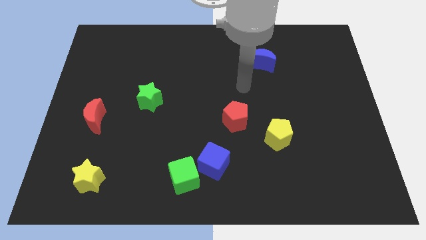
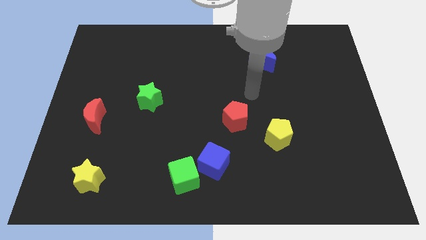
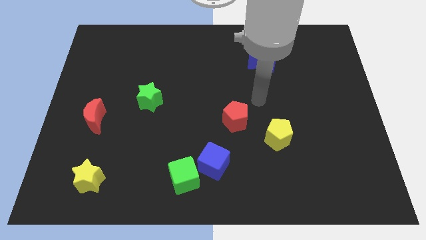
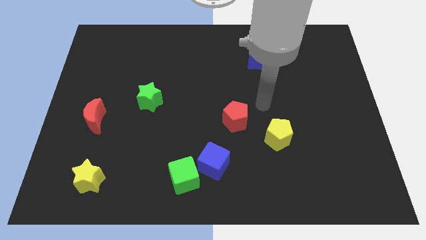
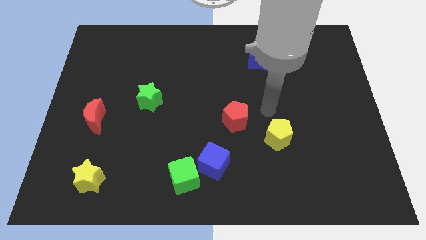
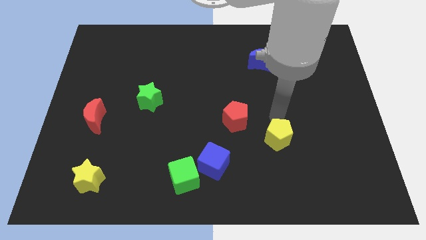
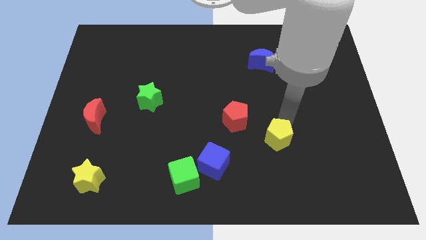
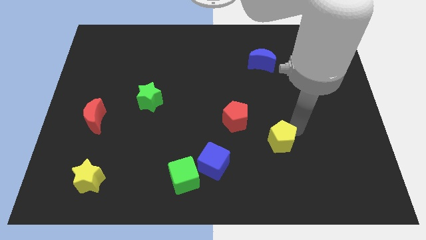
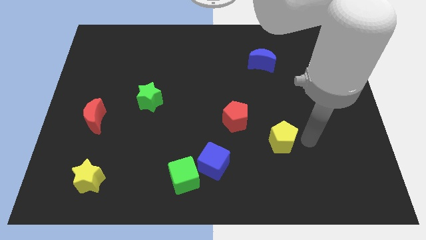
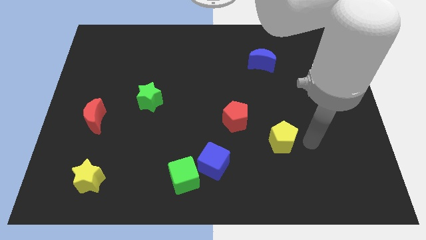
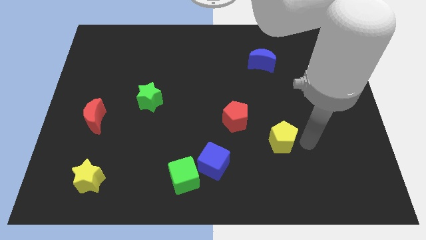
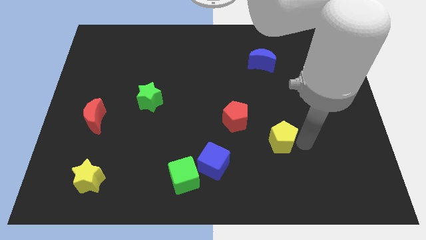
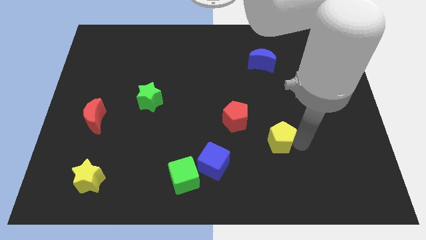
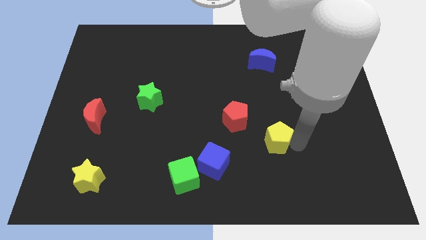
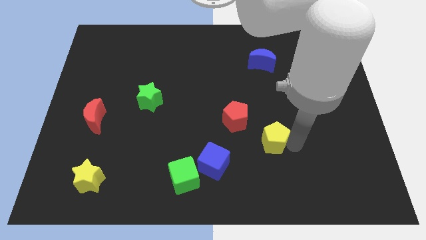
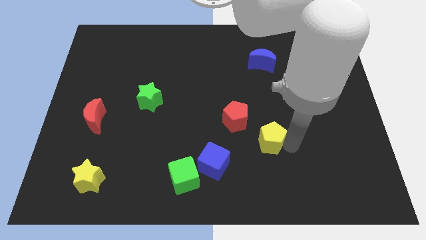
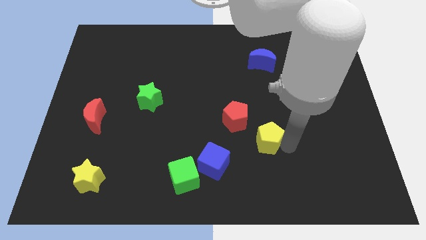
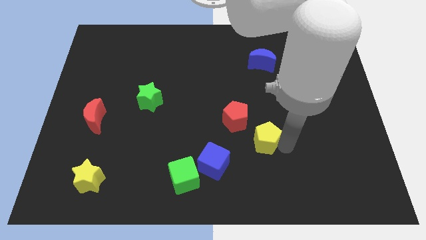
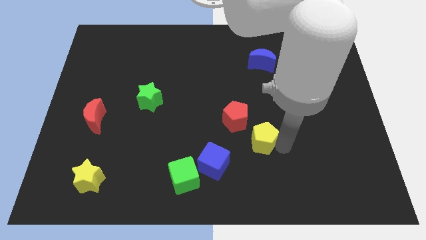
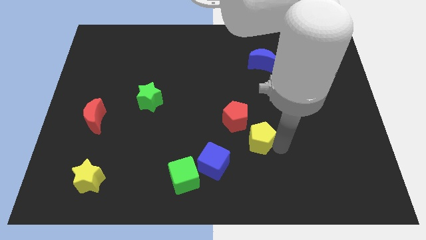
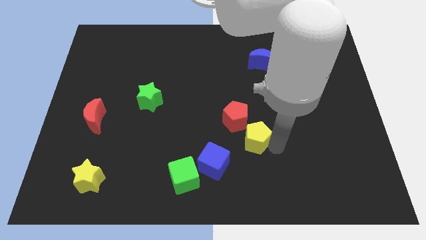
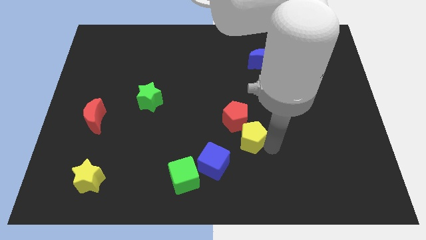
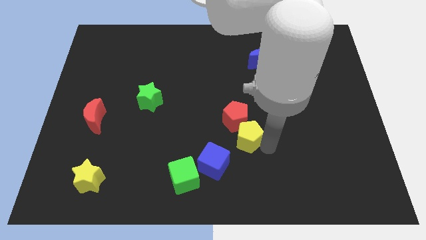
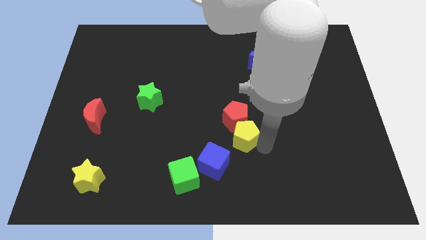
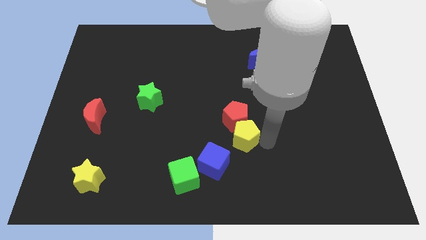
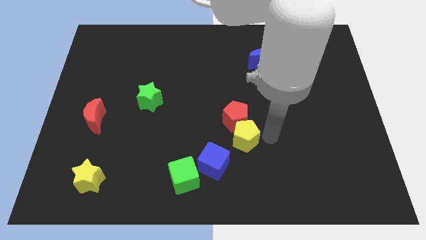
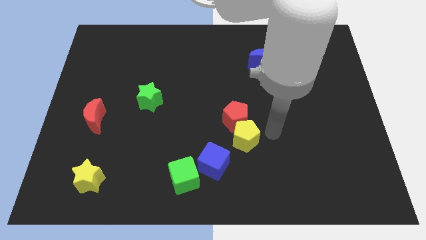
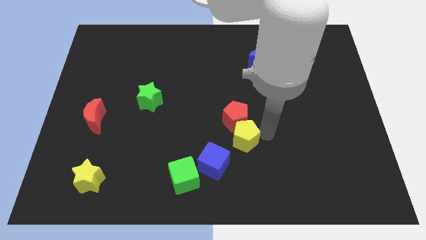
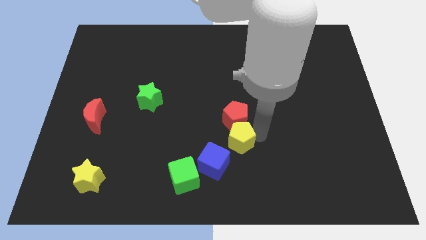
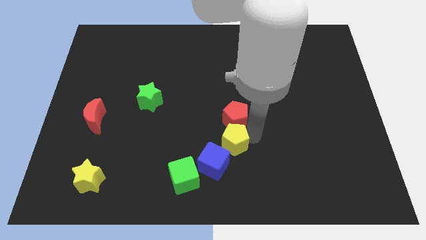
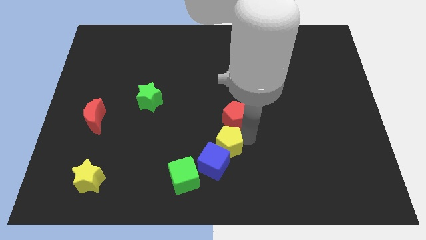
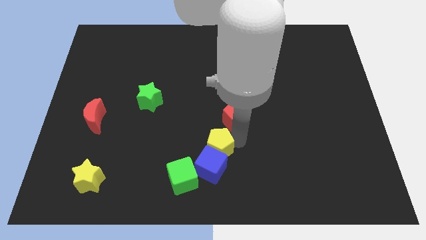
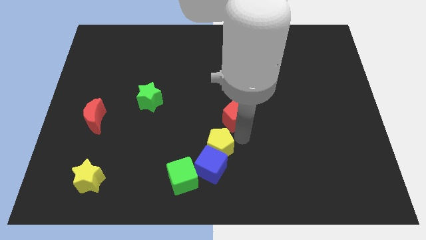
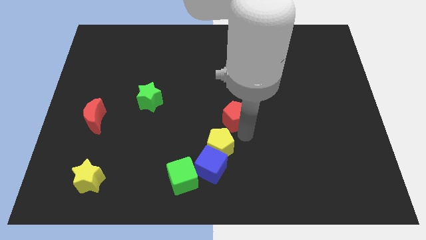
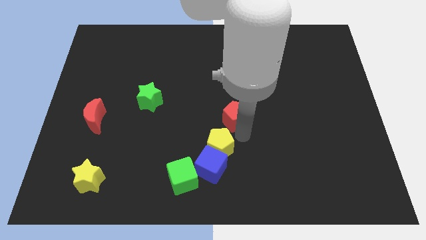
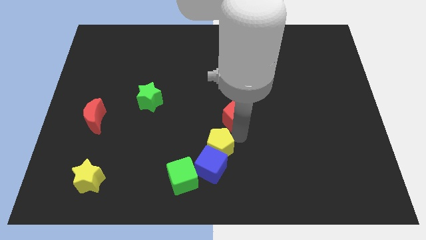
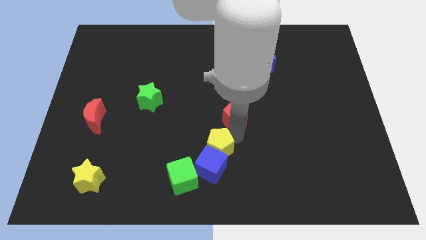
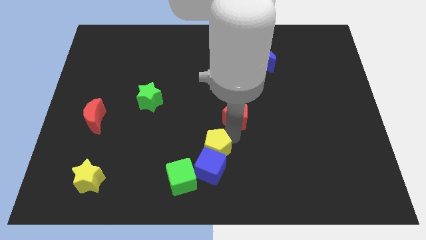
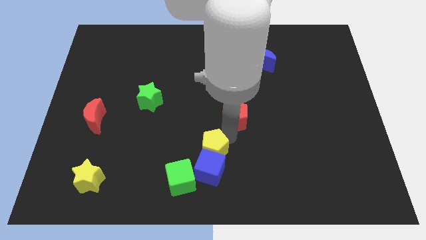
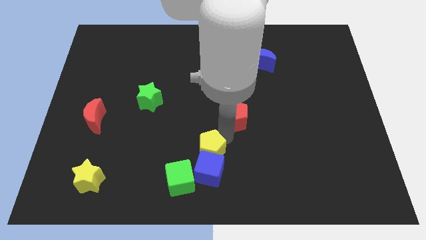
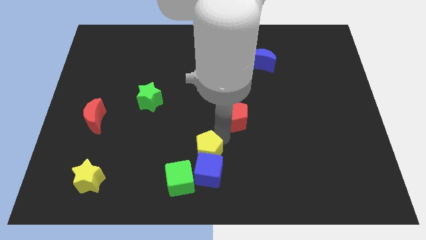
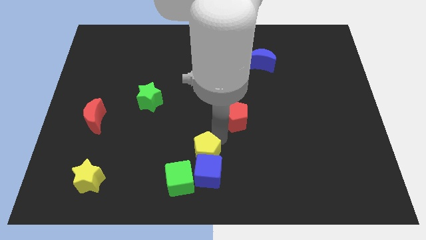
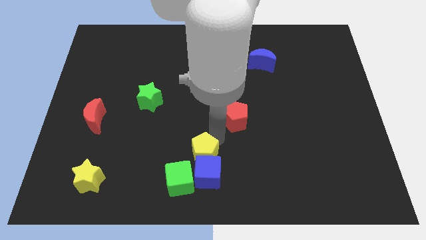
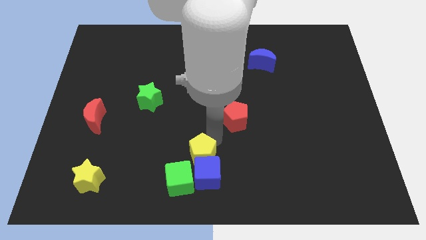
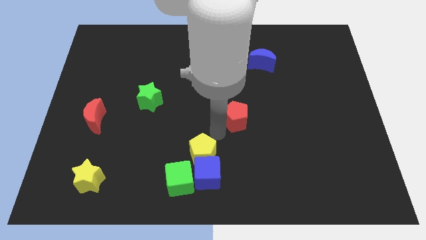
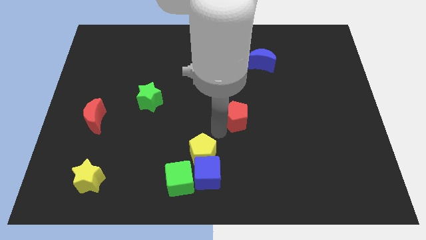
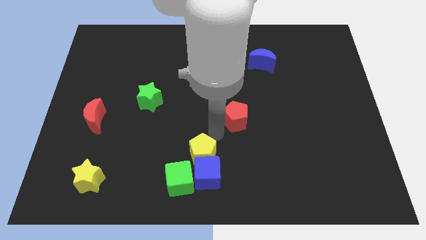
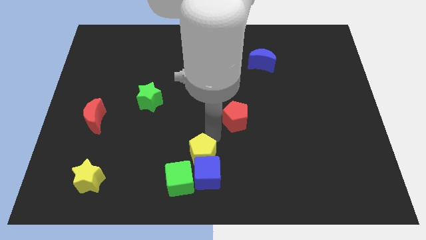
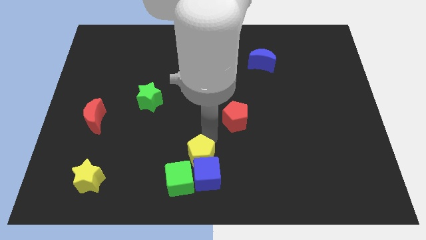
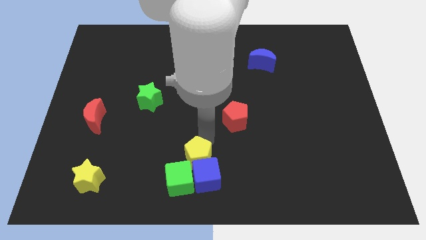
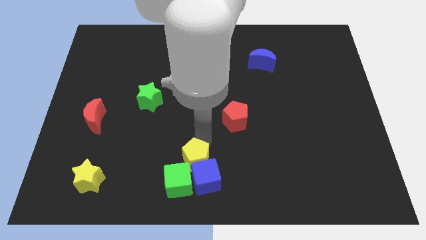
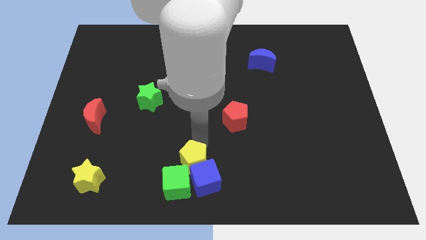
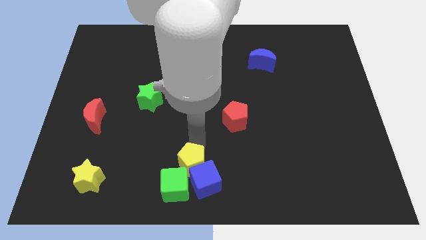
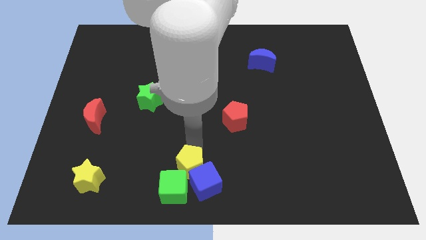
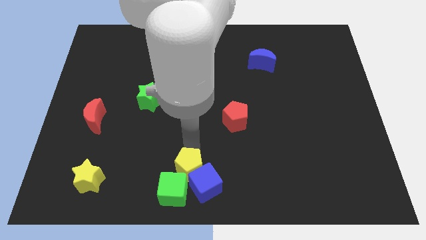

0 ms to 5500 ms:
move the yellow pentagon towards the green cube

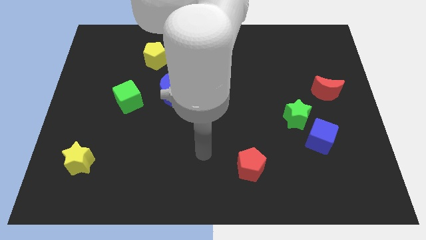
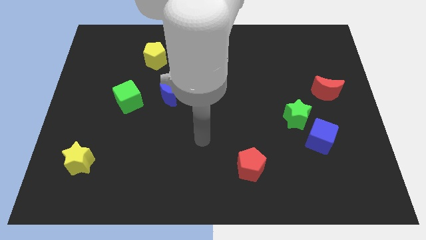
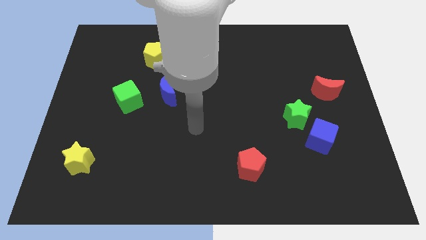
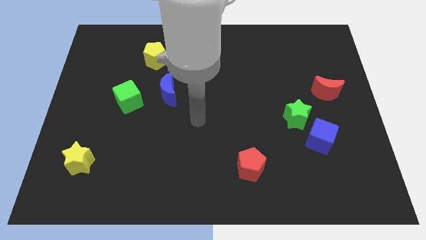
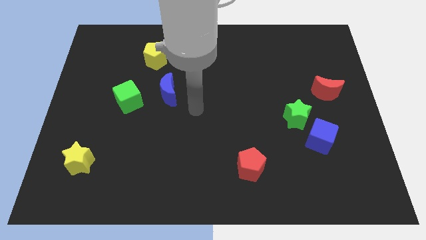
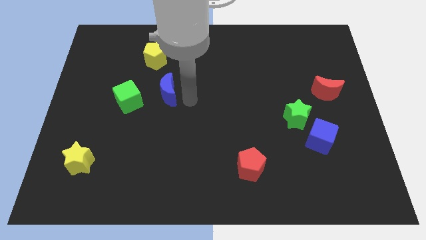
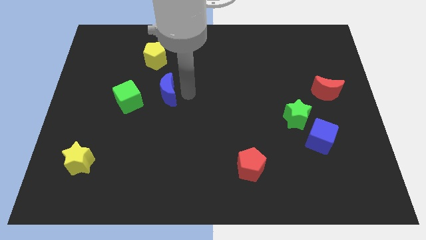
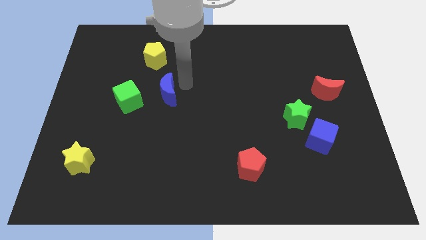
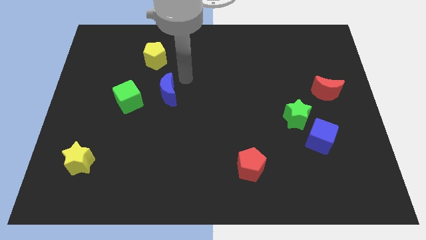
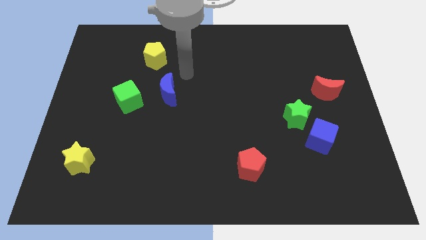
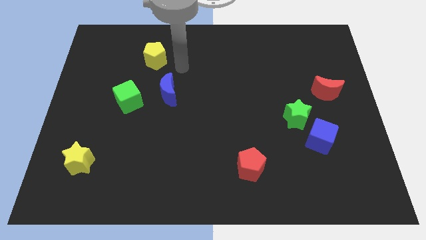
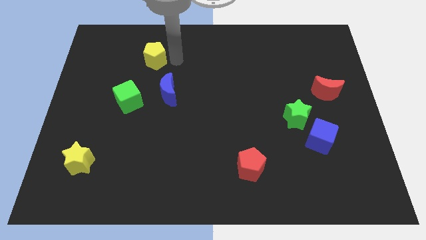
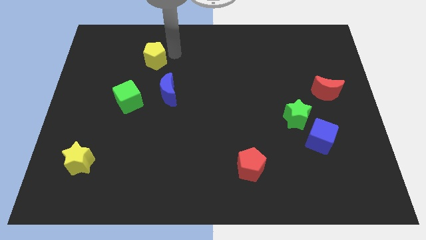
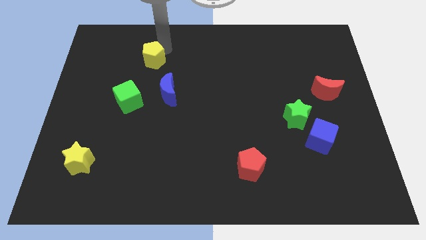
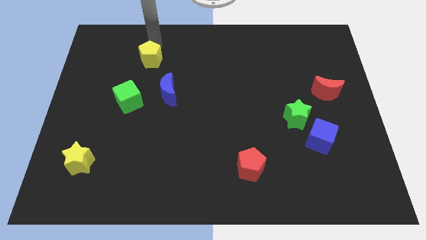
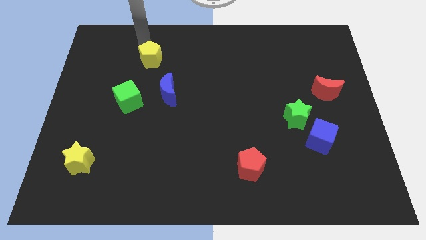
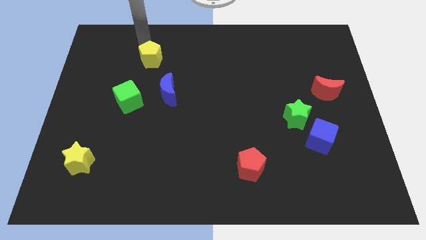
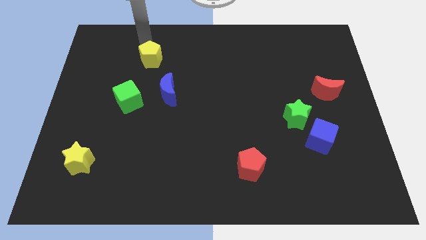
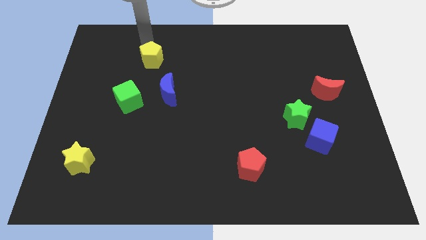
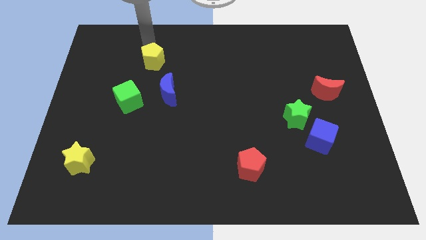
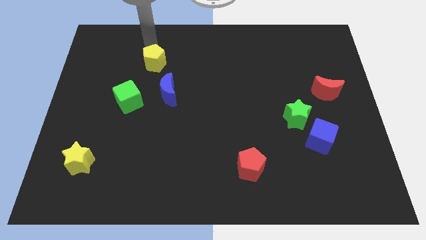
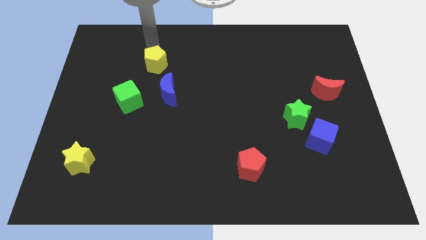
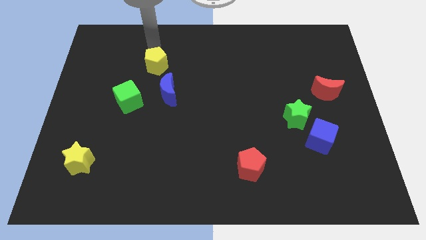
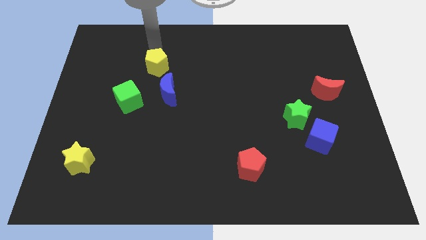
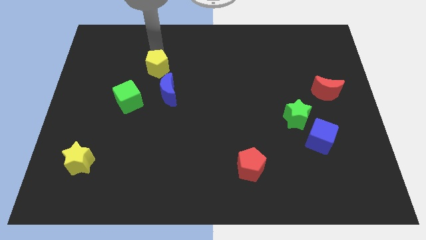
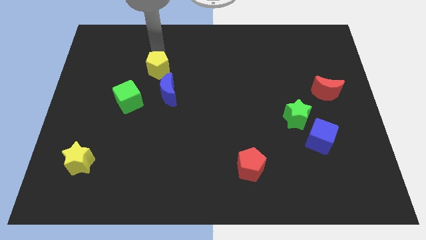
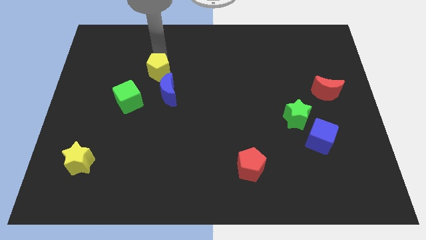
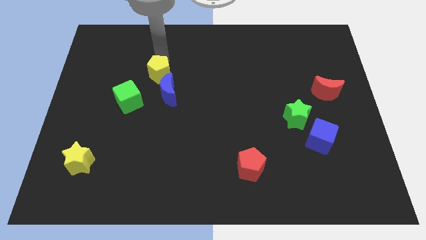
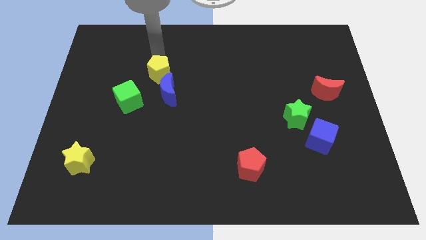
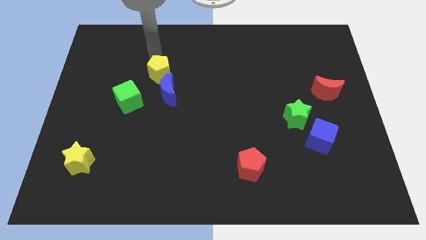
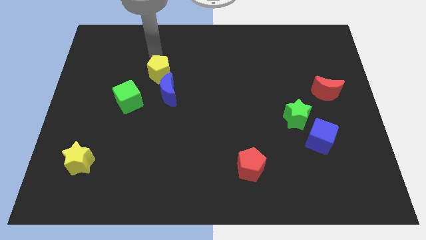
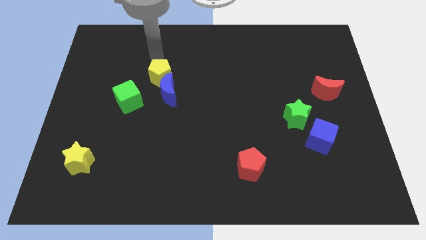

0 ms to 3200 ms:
move the yellow pentagon towards the blue moon
